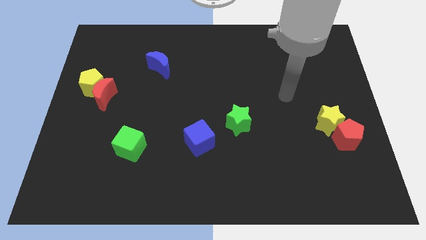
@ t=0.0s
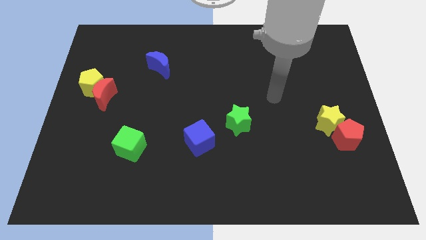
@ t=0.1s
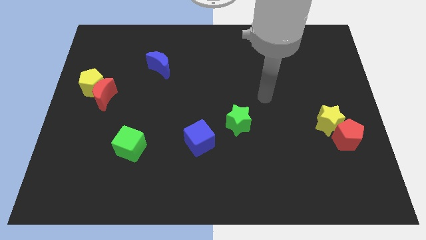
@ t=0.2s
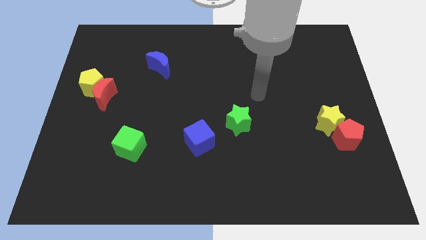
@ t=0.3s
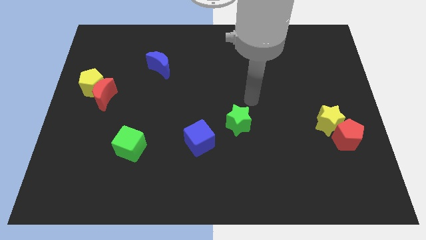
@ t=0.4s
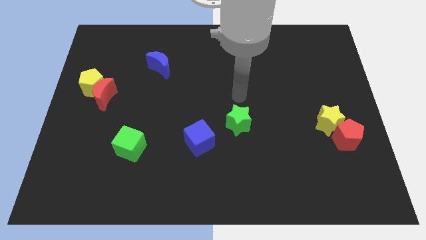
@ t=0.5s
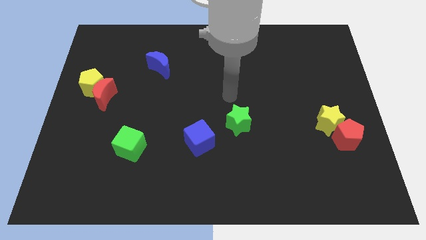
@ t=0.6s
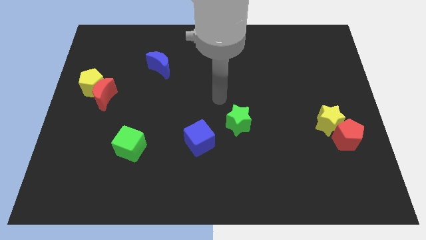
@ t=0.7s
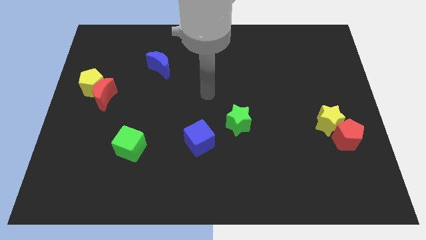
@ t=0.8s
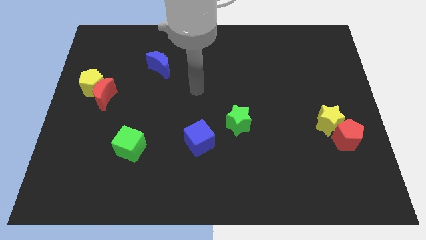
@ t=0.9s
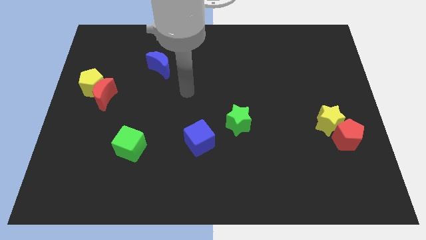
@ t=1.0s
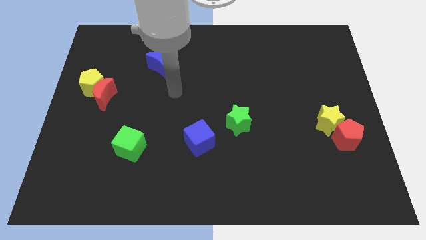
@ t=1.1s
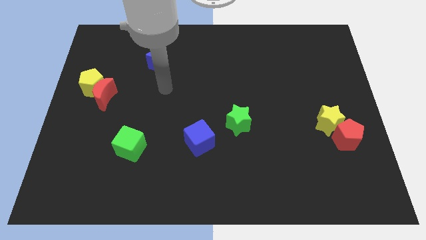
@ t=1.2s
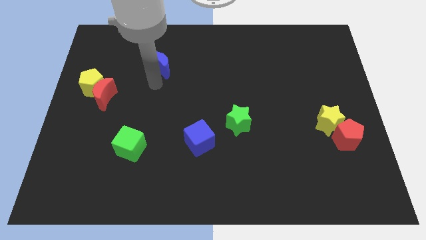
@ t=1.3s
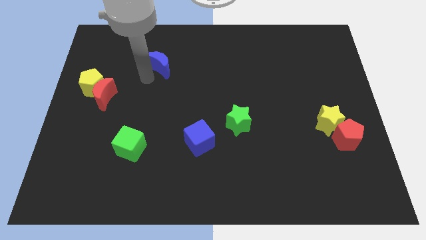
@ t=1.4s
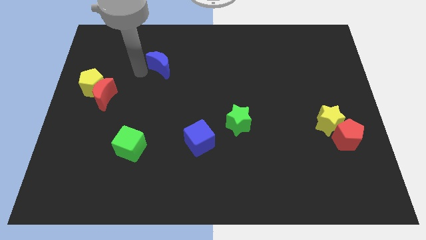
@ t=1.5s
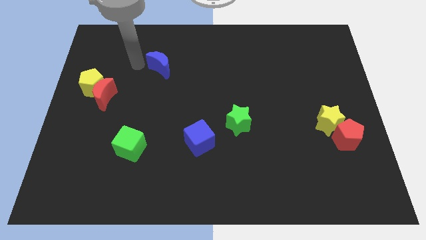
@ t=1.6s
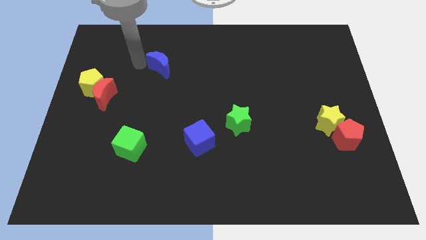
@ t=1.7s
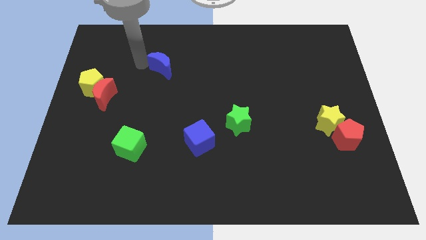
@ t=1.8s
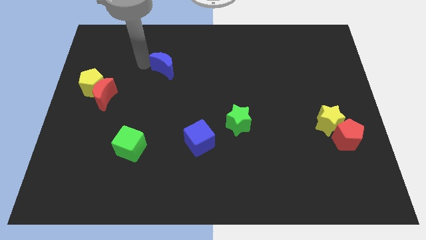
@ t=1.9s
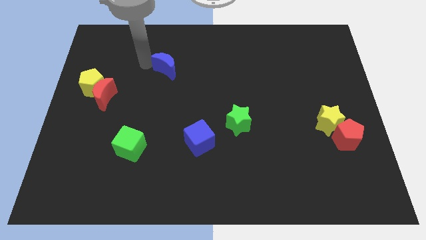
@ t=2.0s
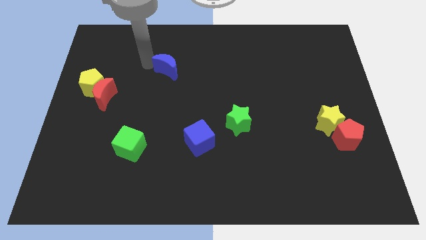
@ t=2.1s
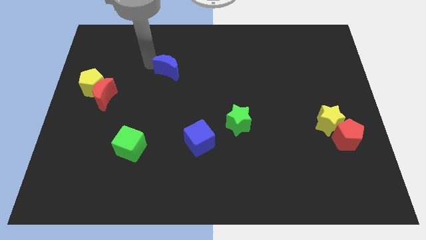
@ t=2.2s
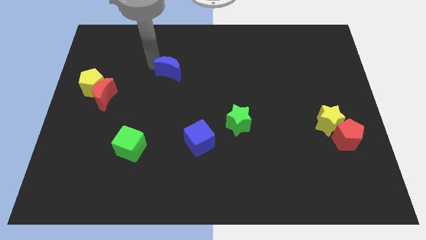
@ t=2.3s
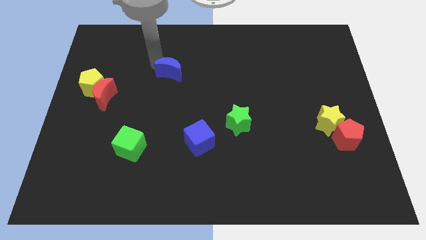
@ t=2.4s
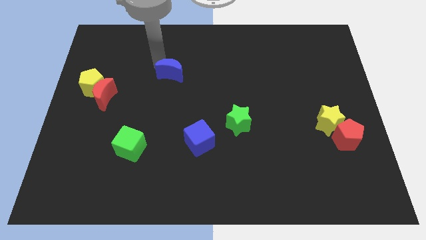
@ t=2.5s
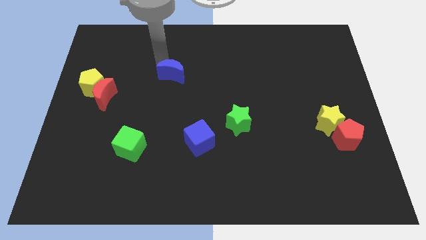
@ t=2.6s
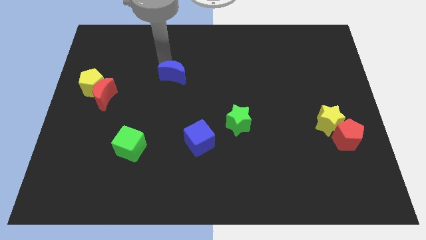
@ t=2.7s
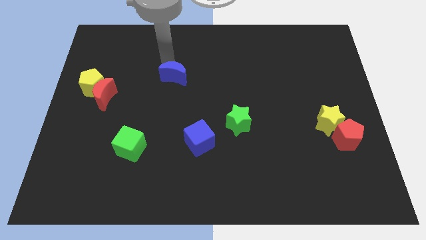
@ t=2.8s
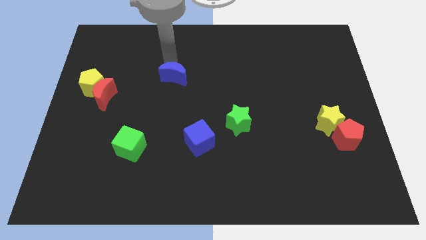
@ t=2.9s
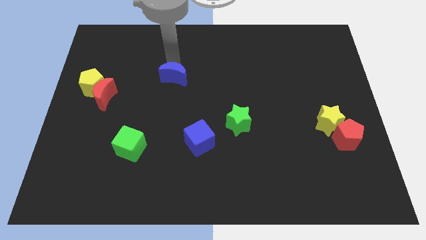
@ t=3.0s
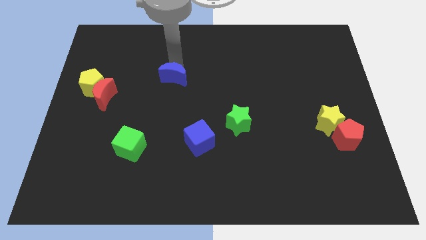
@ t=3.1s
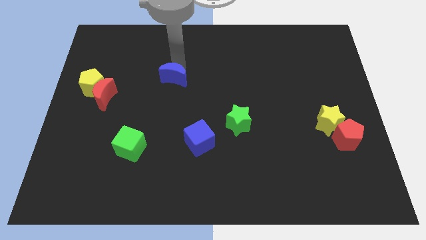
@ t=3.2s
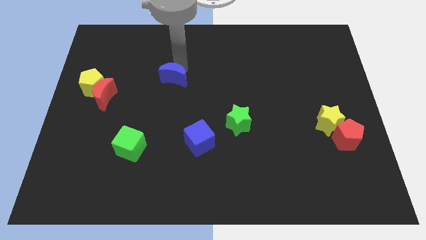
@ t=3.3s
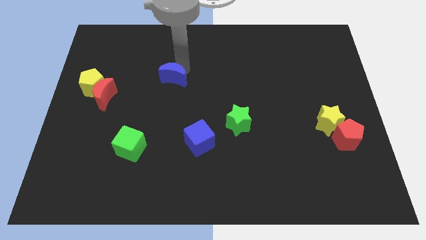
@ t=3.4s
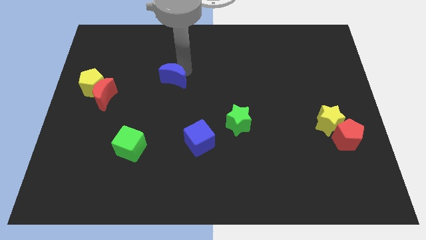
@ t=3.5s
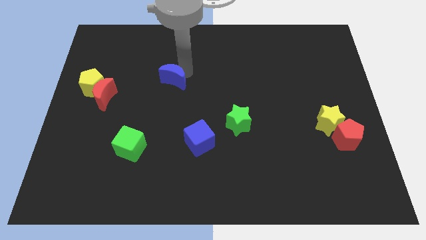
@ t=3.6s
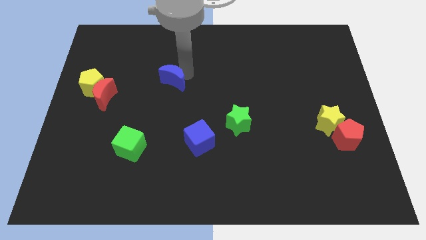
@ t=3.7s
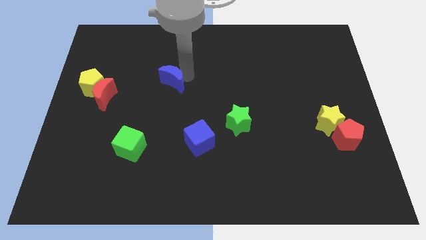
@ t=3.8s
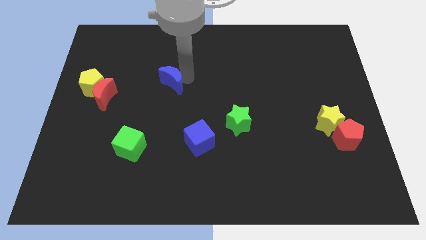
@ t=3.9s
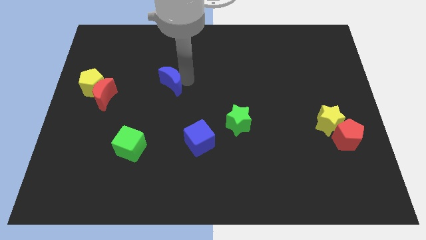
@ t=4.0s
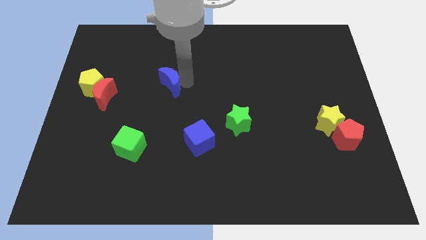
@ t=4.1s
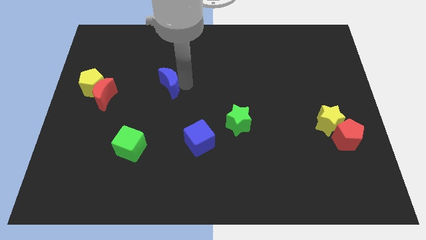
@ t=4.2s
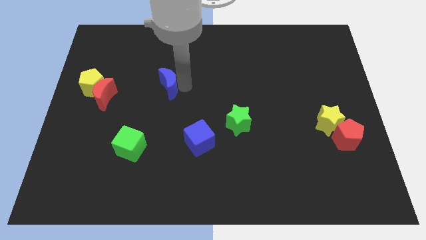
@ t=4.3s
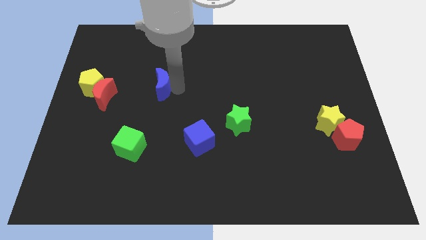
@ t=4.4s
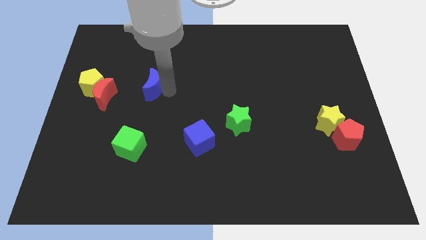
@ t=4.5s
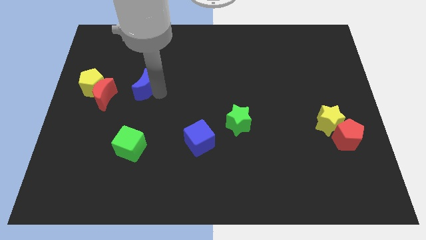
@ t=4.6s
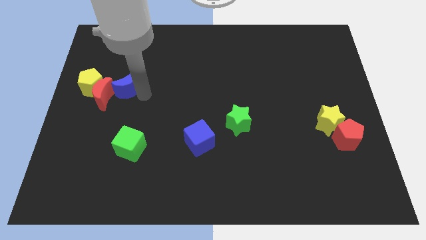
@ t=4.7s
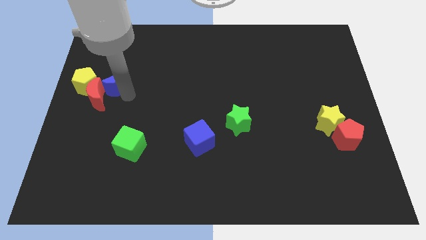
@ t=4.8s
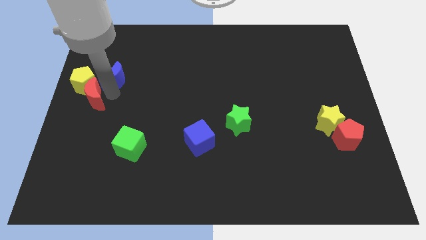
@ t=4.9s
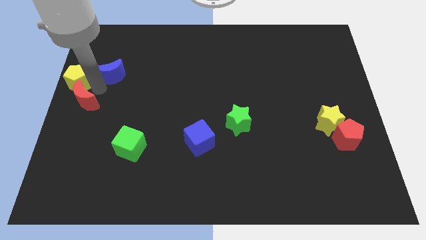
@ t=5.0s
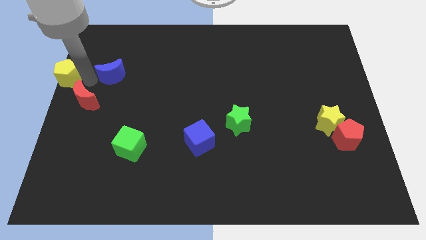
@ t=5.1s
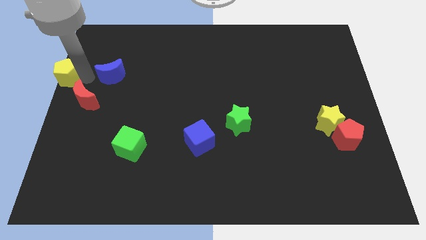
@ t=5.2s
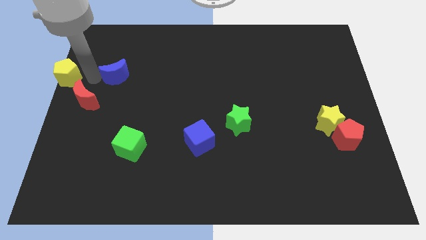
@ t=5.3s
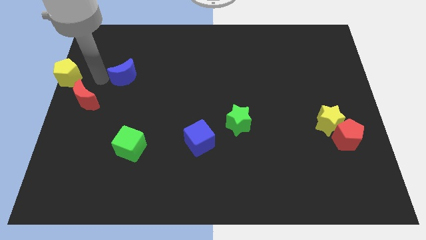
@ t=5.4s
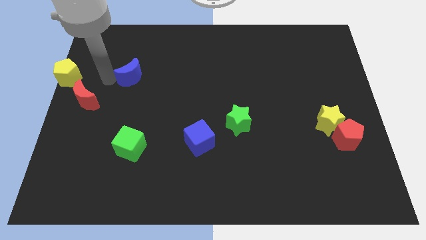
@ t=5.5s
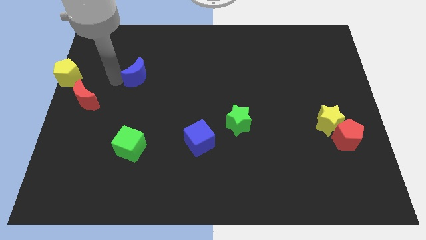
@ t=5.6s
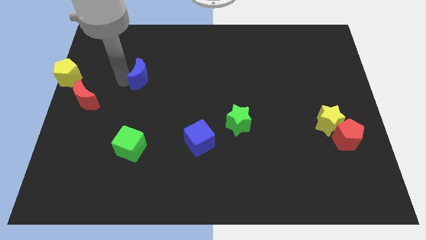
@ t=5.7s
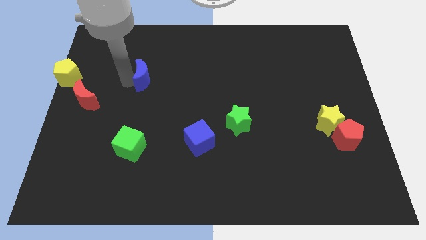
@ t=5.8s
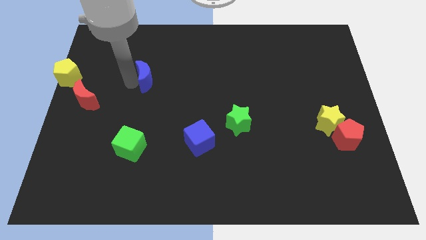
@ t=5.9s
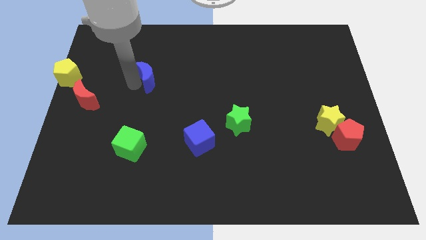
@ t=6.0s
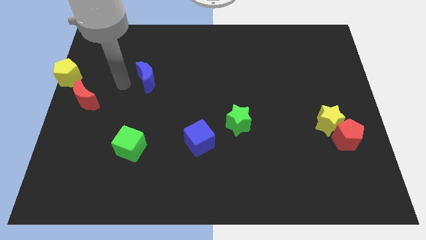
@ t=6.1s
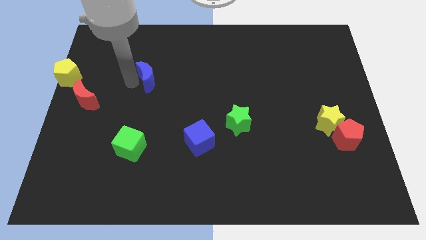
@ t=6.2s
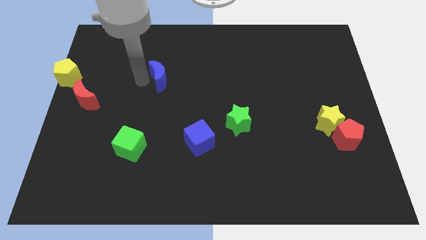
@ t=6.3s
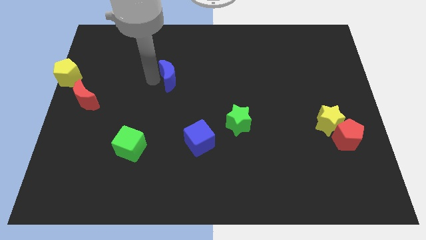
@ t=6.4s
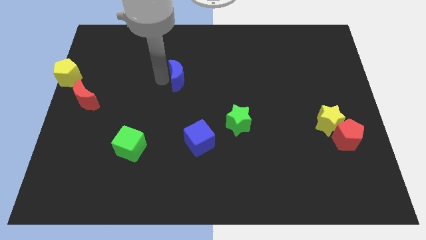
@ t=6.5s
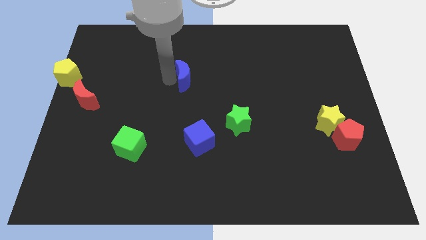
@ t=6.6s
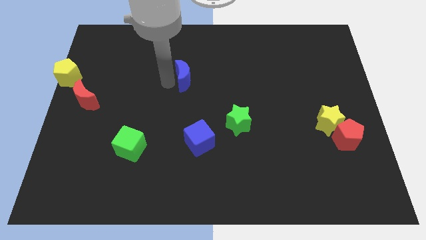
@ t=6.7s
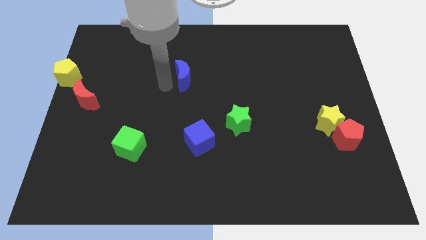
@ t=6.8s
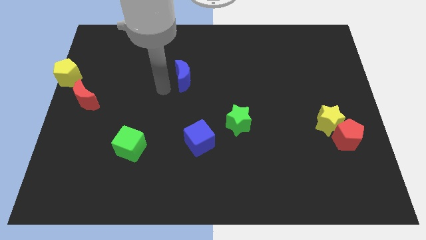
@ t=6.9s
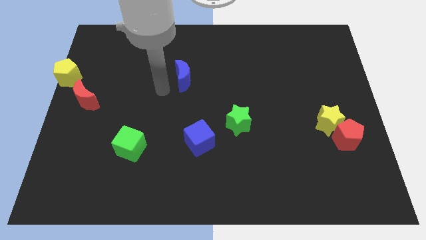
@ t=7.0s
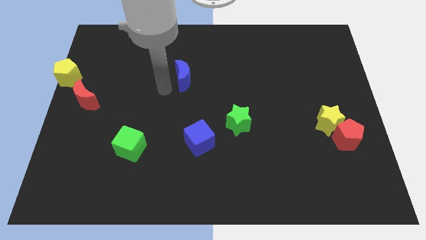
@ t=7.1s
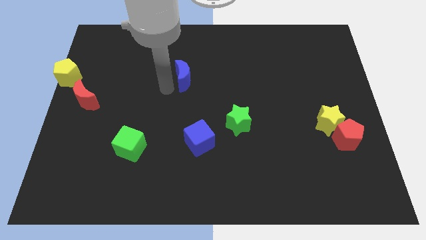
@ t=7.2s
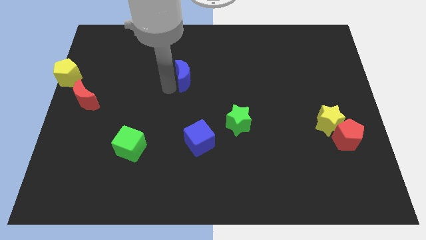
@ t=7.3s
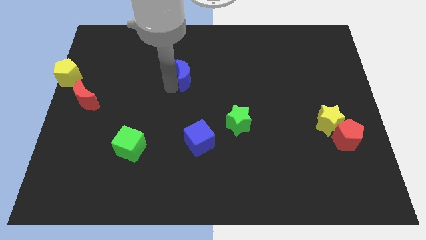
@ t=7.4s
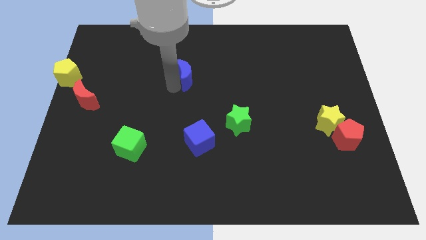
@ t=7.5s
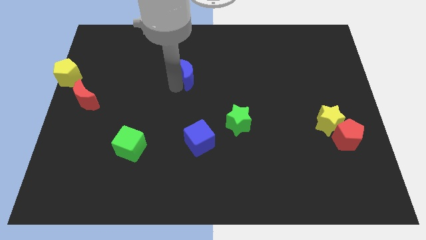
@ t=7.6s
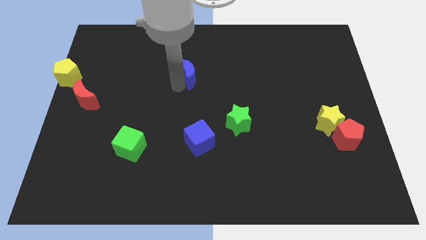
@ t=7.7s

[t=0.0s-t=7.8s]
slightly push the blue moon to the right

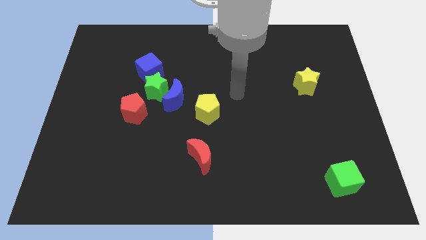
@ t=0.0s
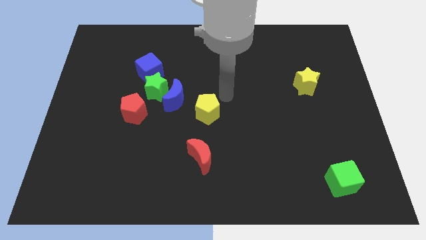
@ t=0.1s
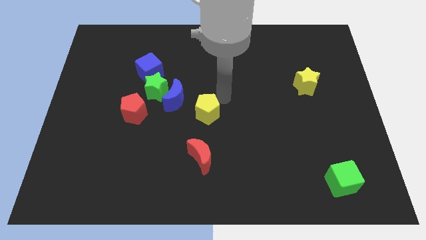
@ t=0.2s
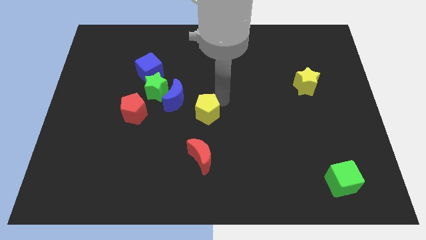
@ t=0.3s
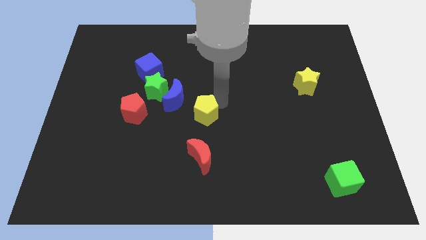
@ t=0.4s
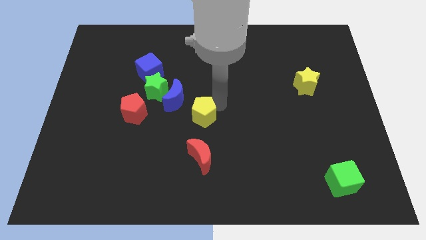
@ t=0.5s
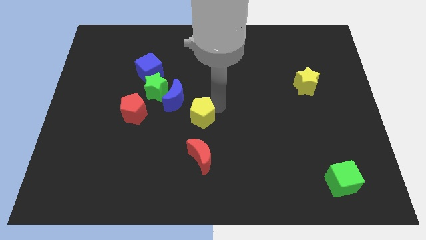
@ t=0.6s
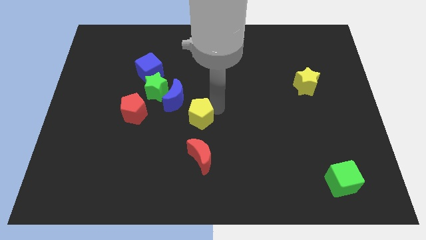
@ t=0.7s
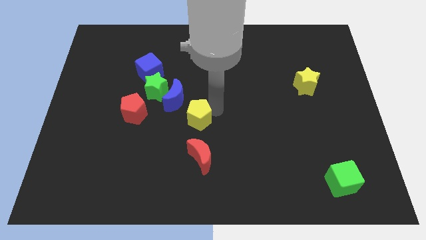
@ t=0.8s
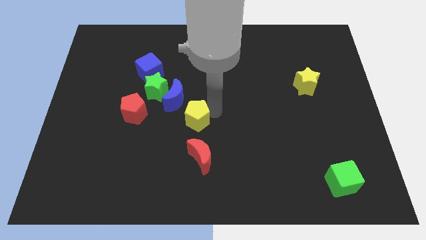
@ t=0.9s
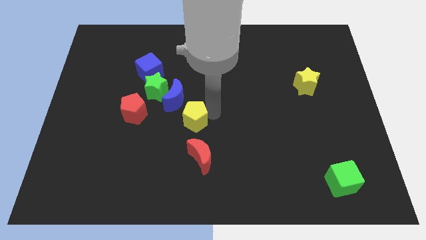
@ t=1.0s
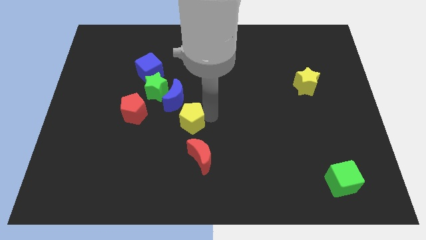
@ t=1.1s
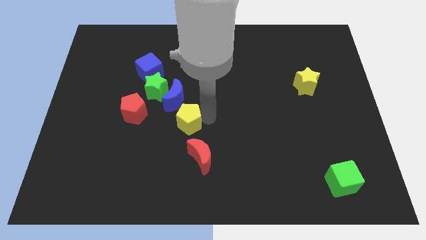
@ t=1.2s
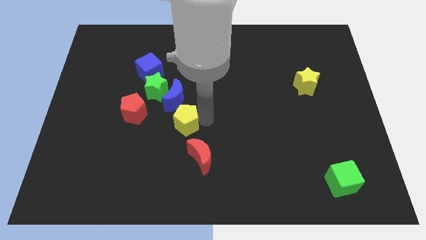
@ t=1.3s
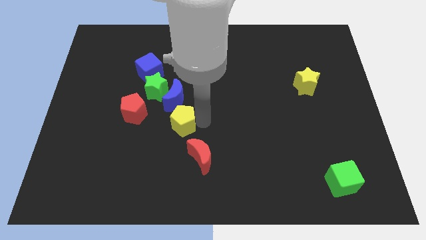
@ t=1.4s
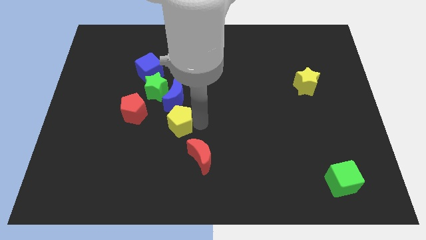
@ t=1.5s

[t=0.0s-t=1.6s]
slide the yellow pentagon down and then to the left a little bit
